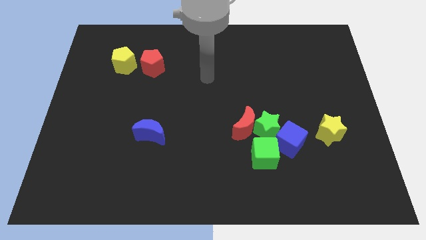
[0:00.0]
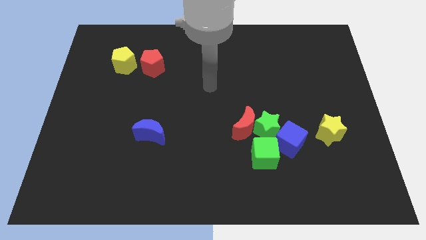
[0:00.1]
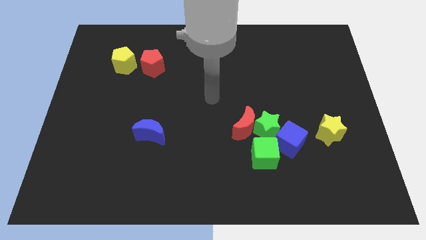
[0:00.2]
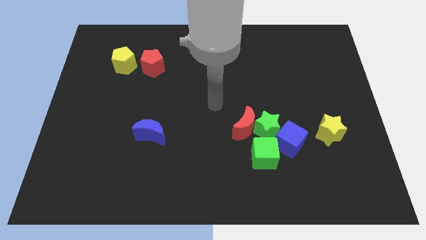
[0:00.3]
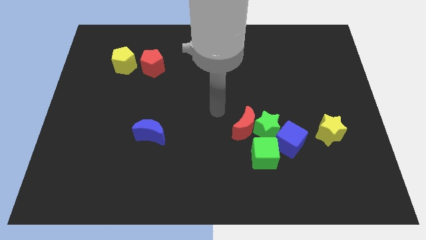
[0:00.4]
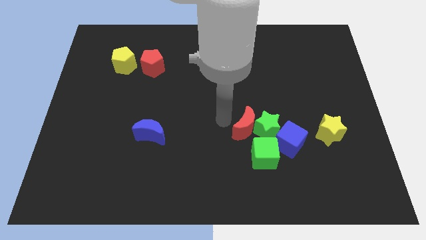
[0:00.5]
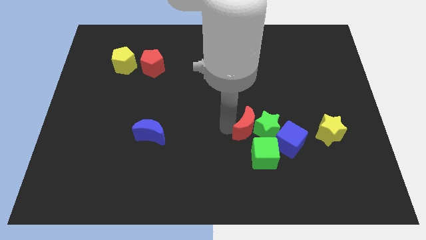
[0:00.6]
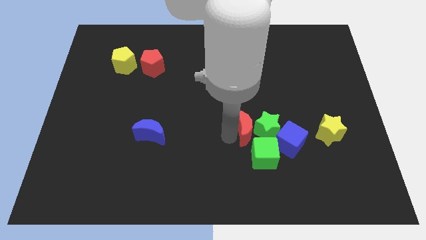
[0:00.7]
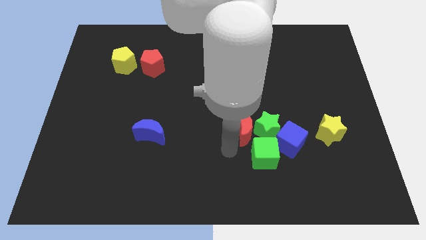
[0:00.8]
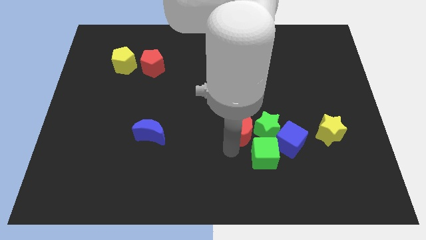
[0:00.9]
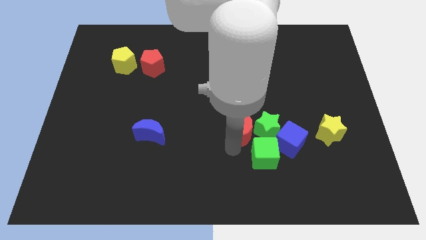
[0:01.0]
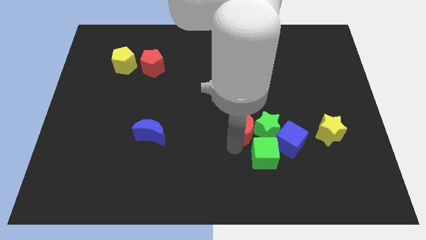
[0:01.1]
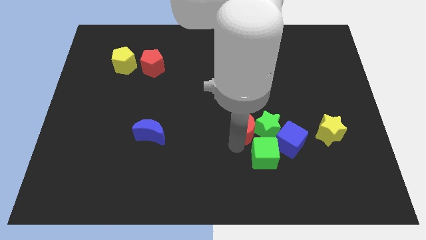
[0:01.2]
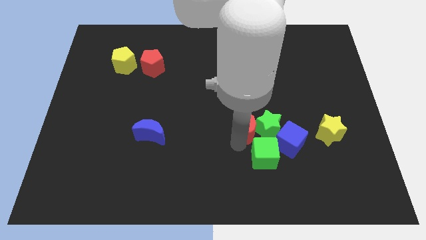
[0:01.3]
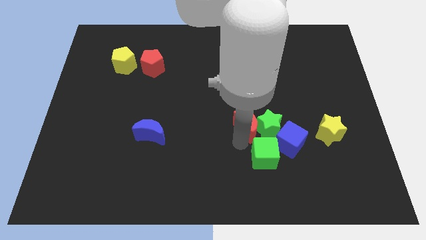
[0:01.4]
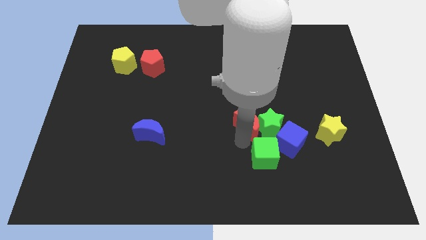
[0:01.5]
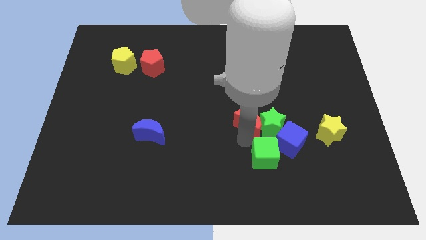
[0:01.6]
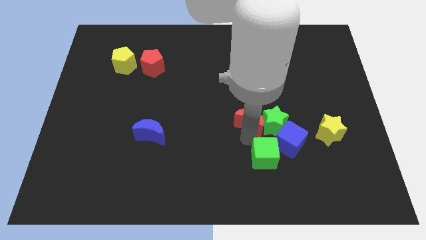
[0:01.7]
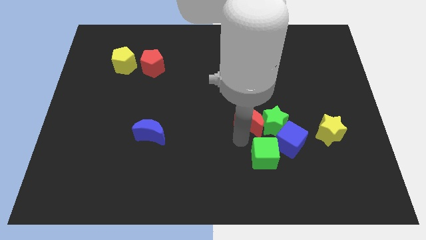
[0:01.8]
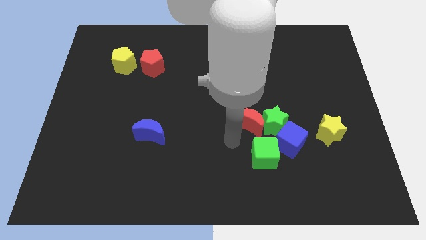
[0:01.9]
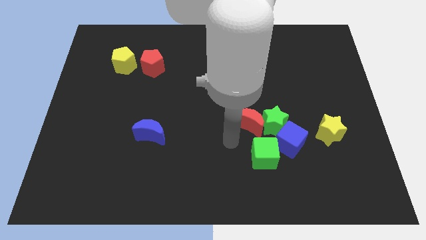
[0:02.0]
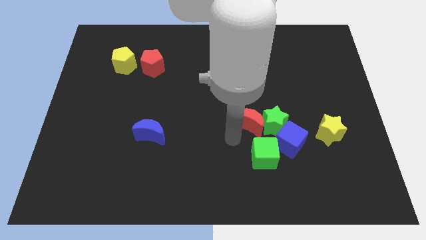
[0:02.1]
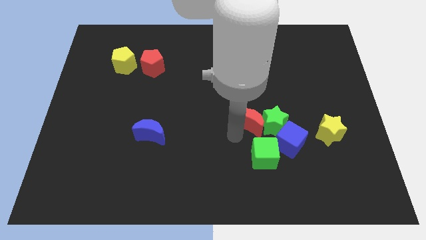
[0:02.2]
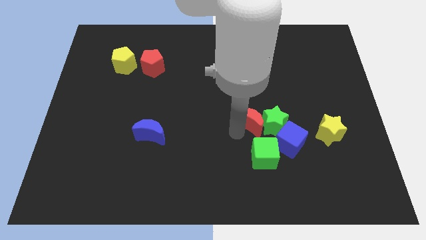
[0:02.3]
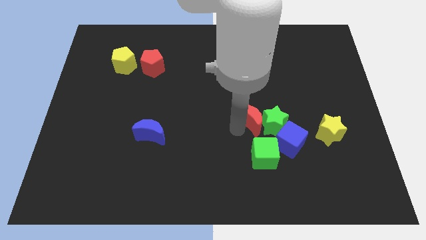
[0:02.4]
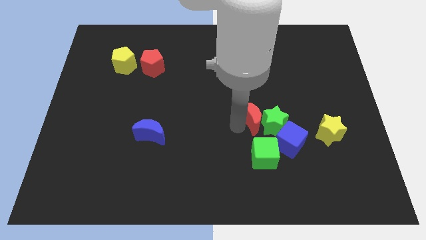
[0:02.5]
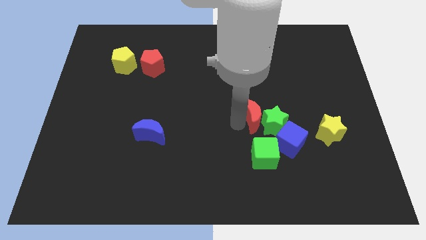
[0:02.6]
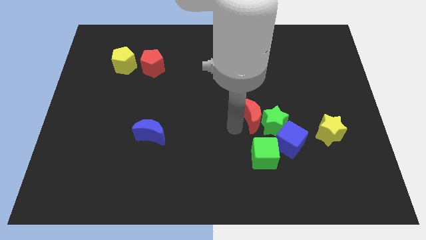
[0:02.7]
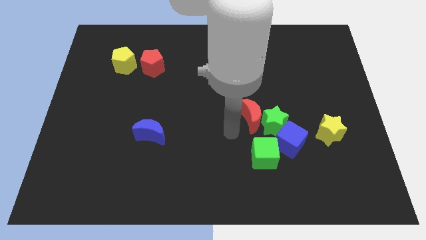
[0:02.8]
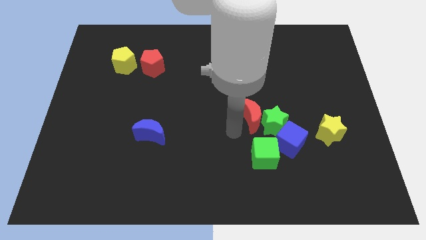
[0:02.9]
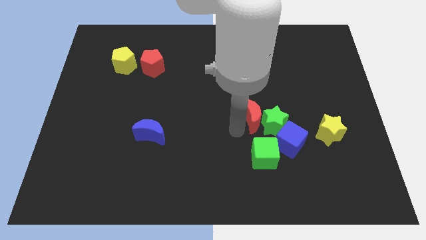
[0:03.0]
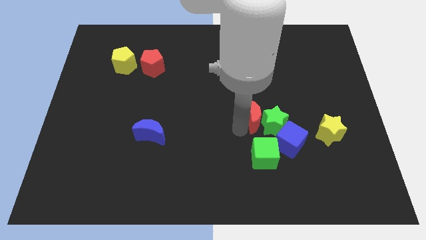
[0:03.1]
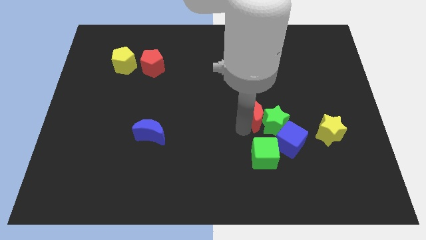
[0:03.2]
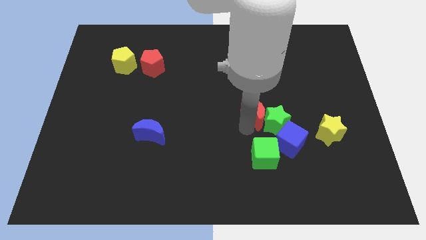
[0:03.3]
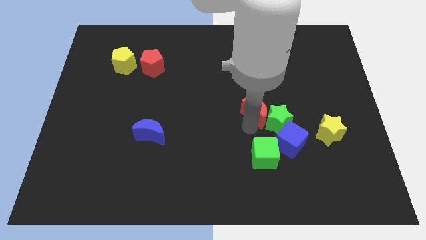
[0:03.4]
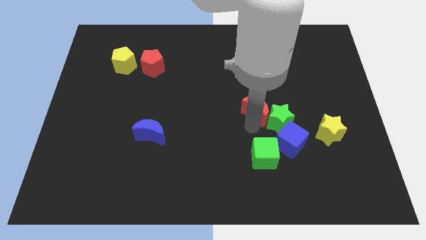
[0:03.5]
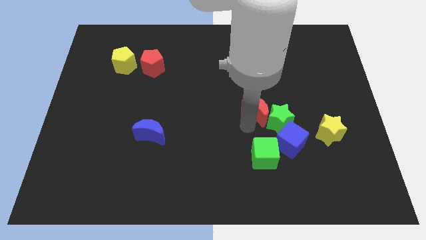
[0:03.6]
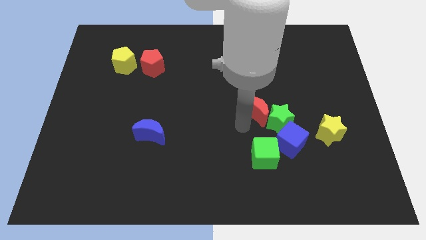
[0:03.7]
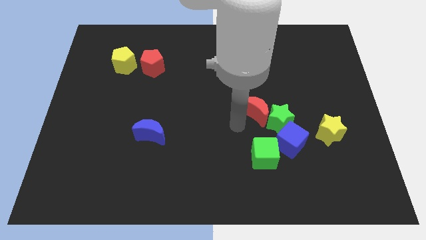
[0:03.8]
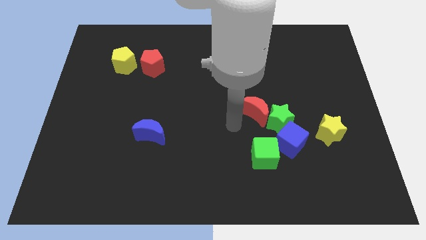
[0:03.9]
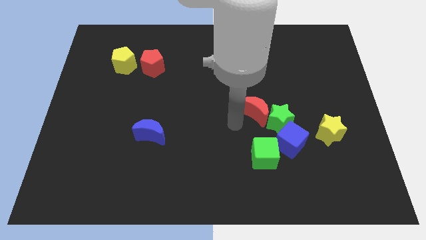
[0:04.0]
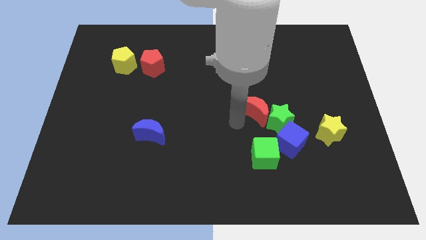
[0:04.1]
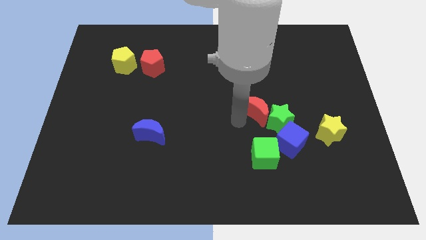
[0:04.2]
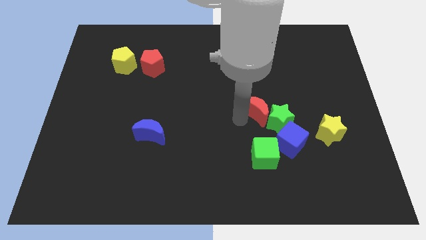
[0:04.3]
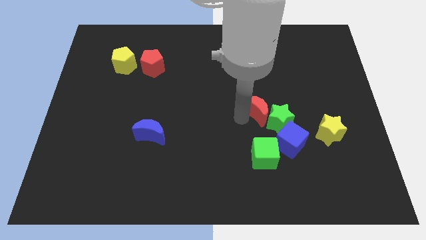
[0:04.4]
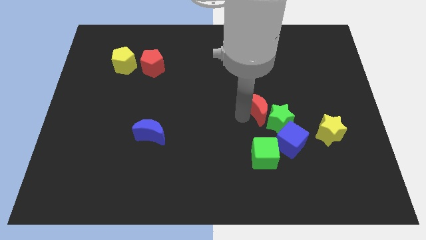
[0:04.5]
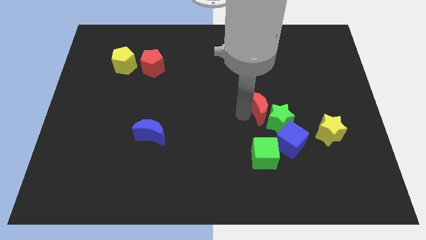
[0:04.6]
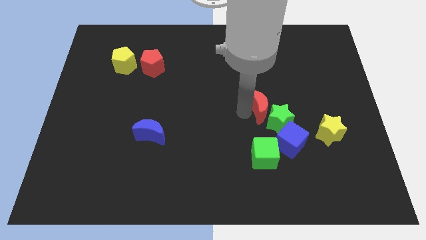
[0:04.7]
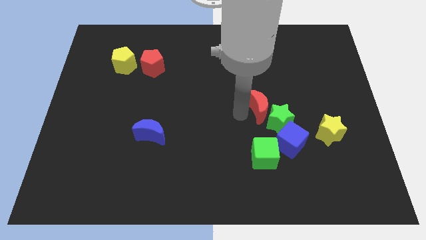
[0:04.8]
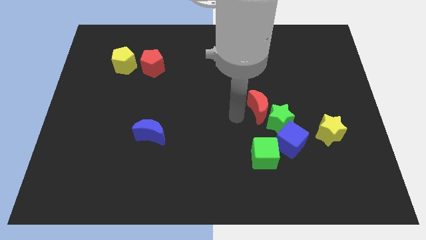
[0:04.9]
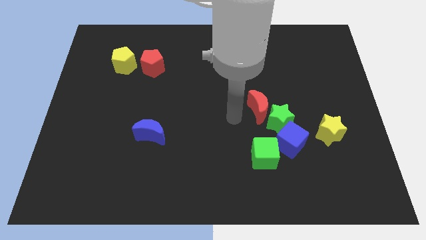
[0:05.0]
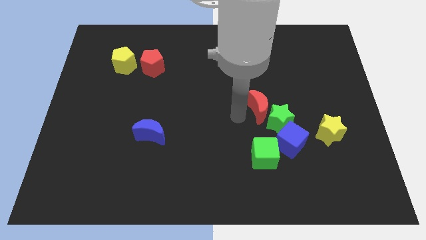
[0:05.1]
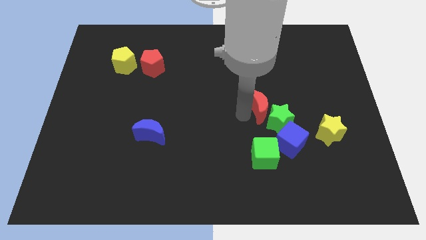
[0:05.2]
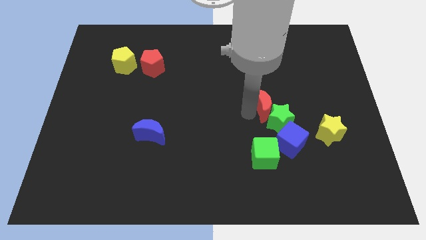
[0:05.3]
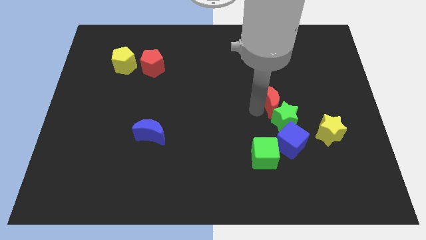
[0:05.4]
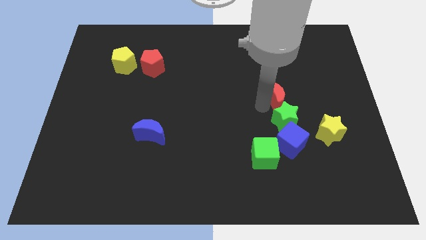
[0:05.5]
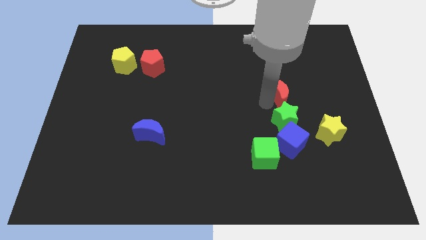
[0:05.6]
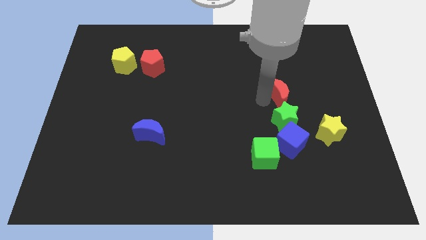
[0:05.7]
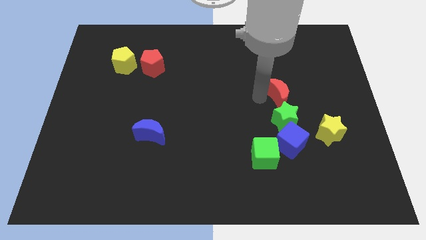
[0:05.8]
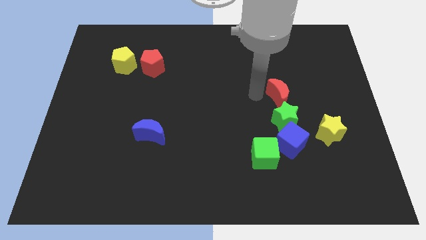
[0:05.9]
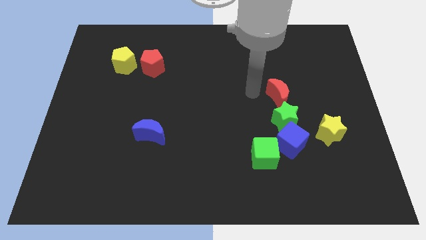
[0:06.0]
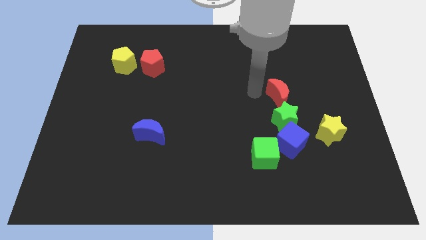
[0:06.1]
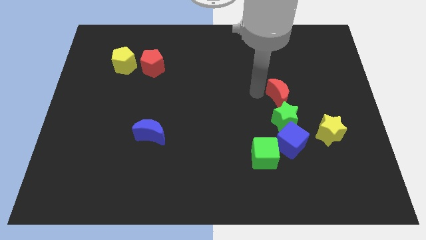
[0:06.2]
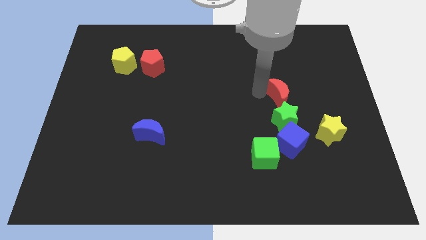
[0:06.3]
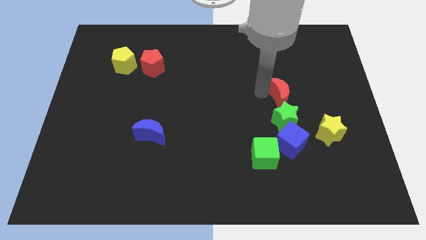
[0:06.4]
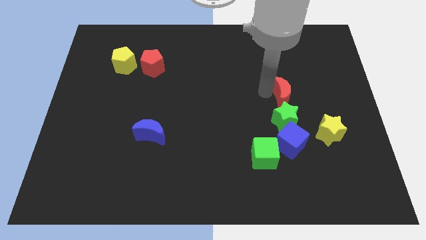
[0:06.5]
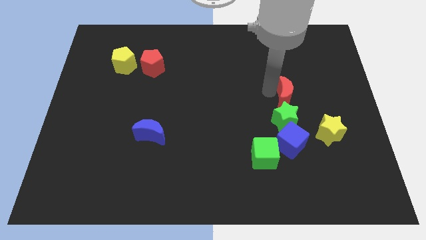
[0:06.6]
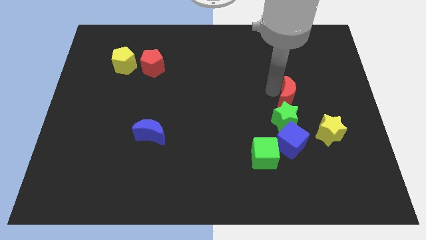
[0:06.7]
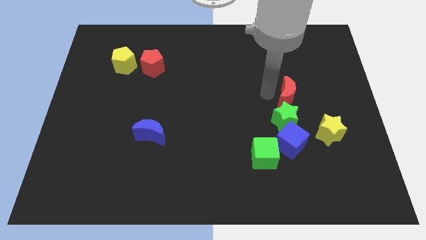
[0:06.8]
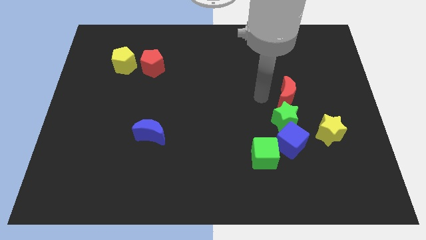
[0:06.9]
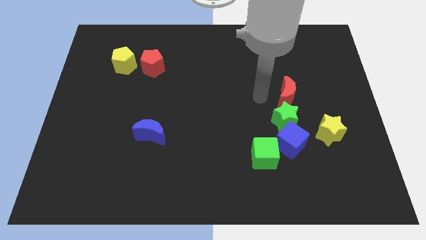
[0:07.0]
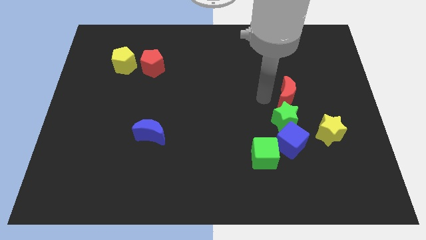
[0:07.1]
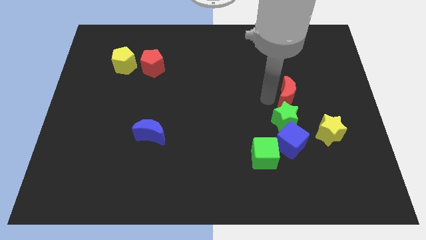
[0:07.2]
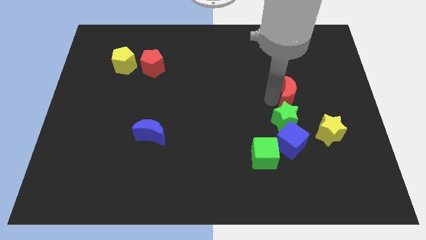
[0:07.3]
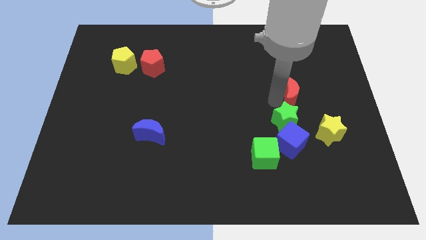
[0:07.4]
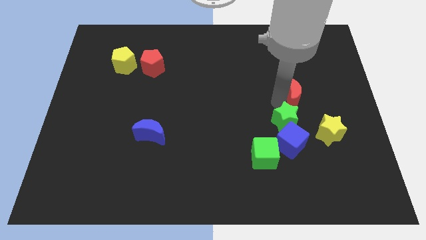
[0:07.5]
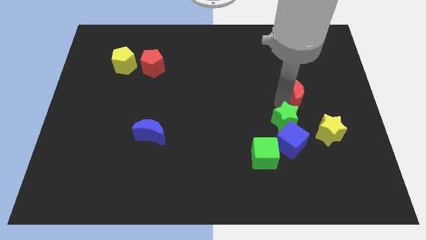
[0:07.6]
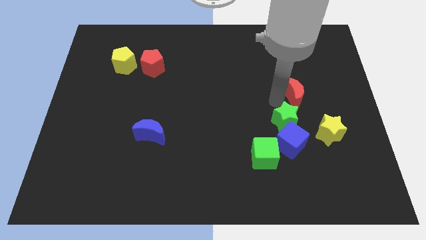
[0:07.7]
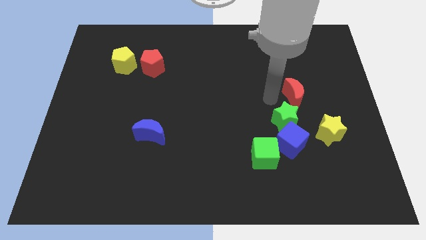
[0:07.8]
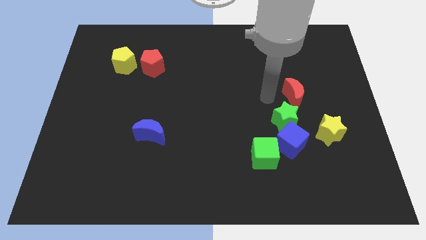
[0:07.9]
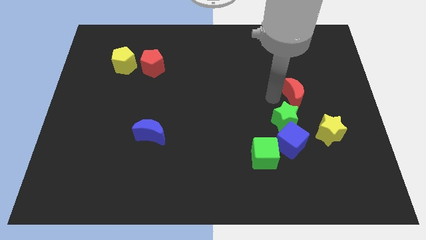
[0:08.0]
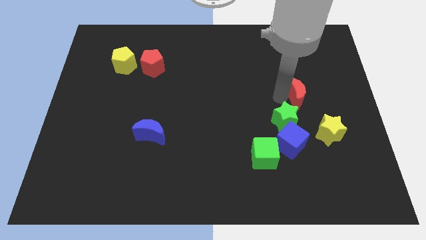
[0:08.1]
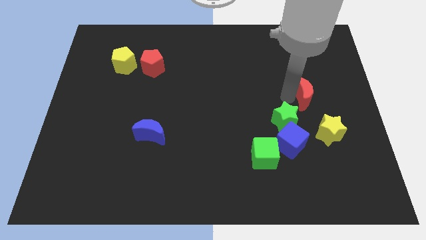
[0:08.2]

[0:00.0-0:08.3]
put the red moon to the top side of the yellow star
